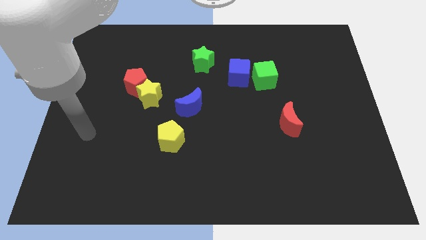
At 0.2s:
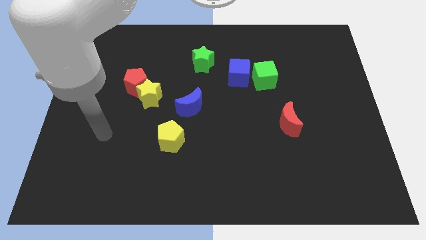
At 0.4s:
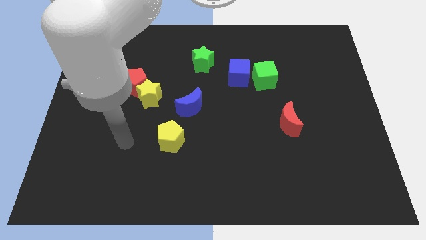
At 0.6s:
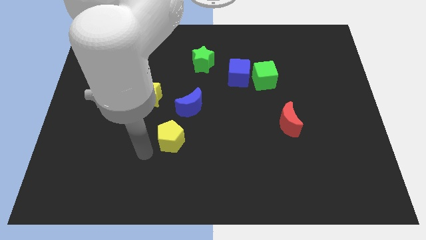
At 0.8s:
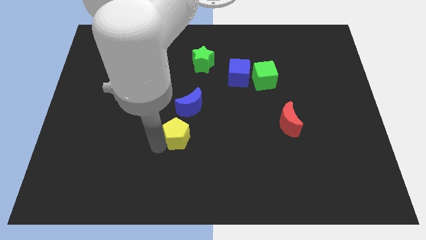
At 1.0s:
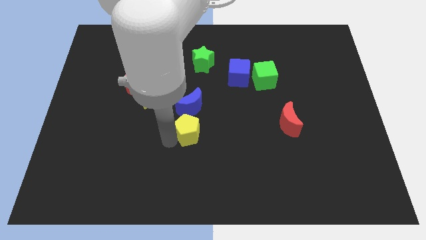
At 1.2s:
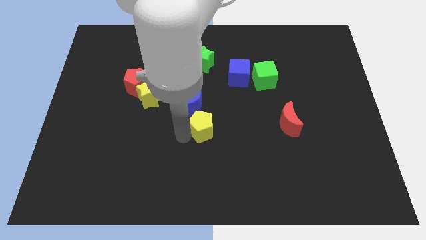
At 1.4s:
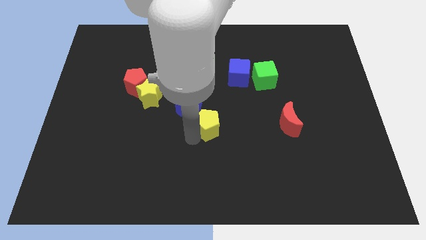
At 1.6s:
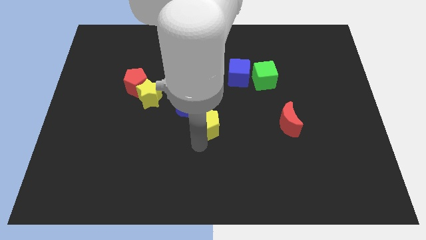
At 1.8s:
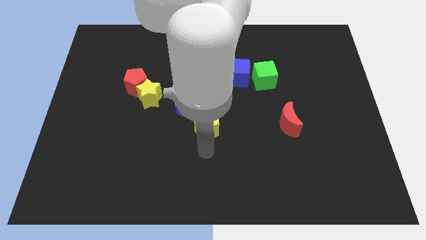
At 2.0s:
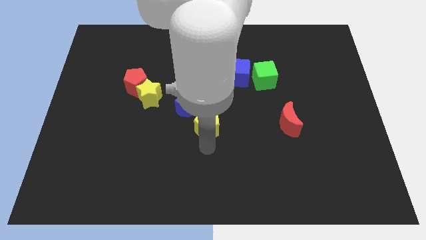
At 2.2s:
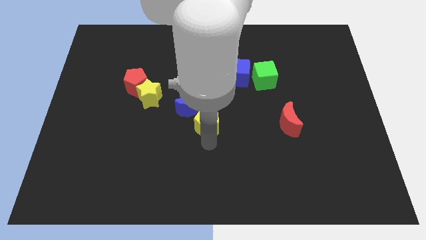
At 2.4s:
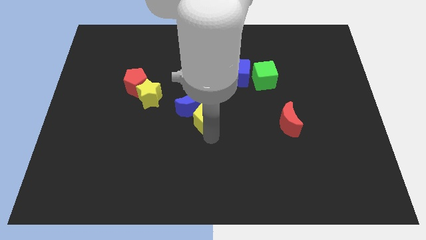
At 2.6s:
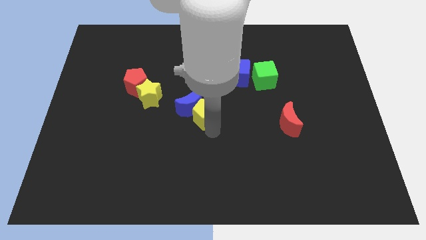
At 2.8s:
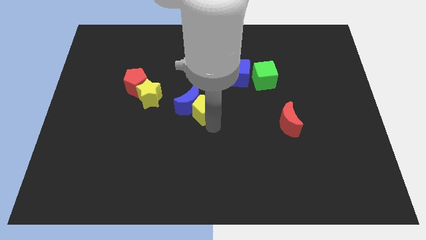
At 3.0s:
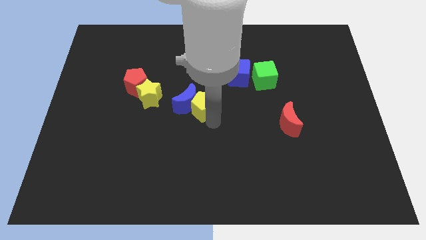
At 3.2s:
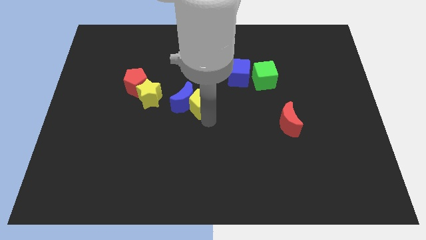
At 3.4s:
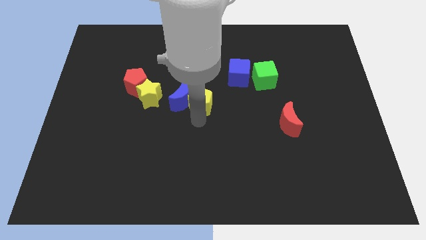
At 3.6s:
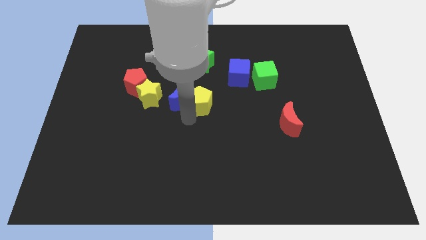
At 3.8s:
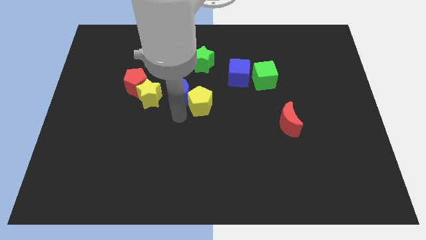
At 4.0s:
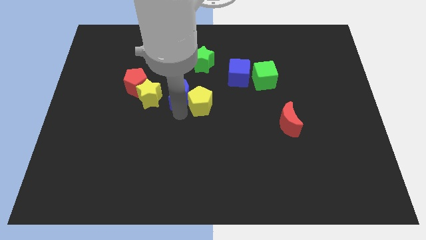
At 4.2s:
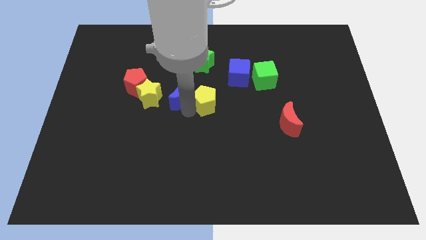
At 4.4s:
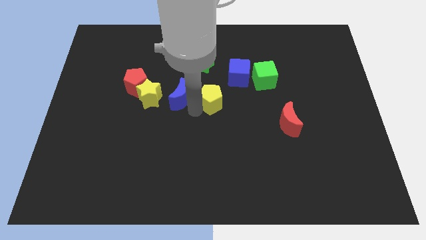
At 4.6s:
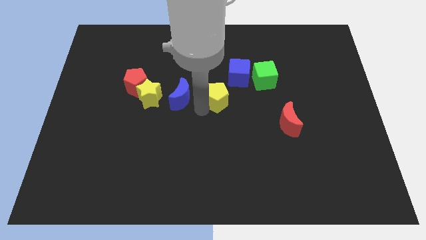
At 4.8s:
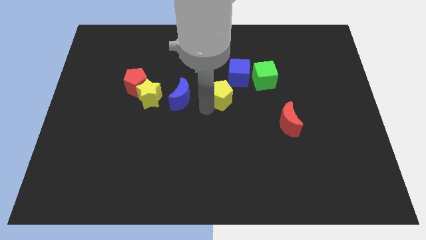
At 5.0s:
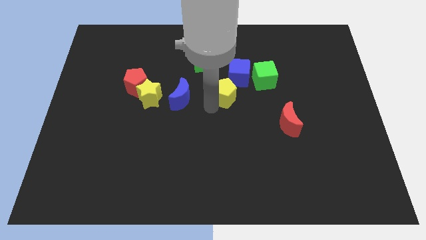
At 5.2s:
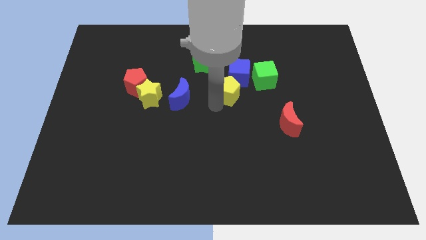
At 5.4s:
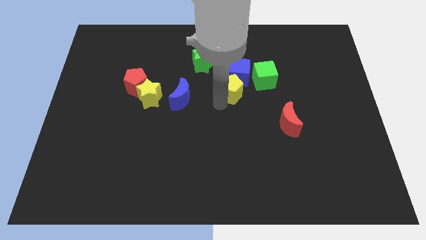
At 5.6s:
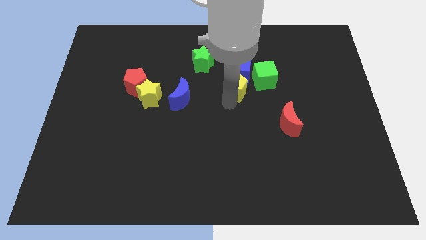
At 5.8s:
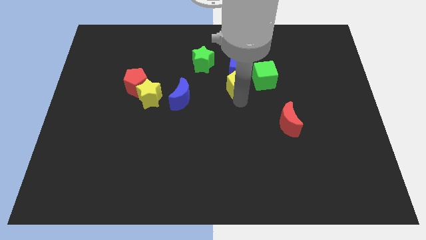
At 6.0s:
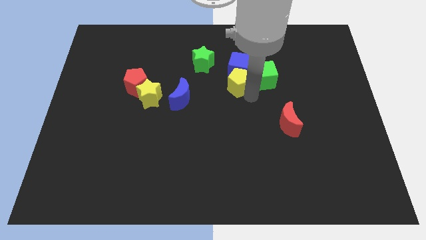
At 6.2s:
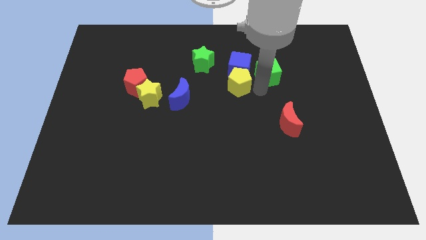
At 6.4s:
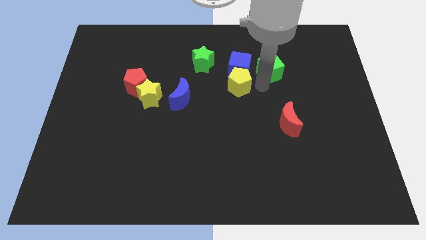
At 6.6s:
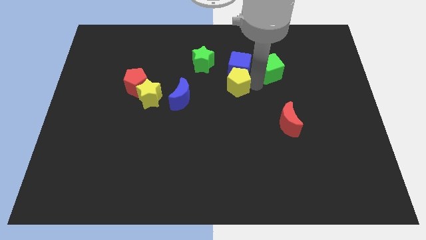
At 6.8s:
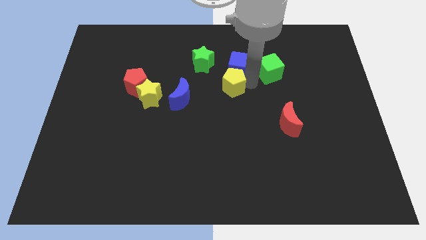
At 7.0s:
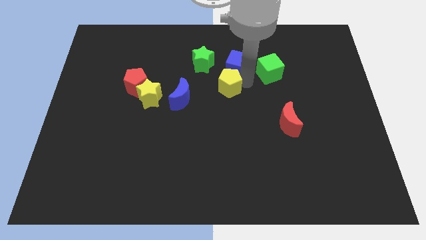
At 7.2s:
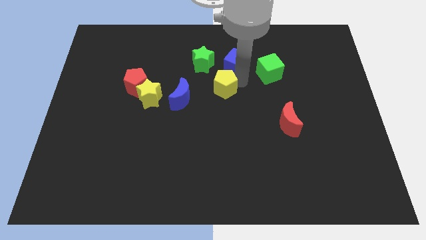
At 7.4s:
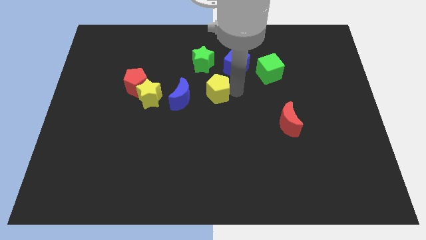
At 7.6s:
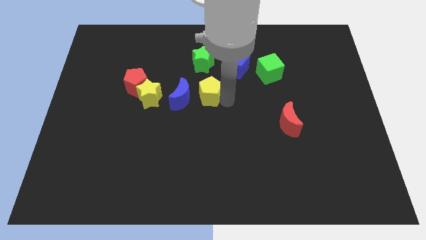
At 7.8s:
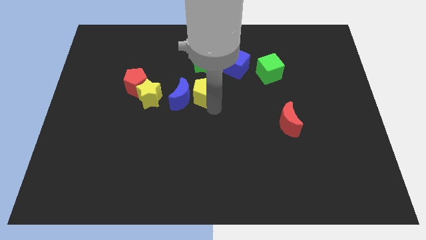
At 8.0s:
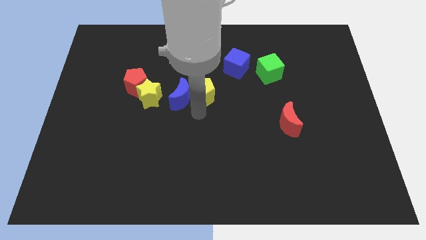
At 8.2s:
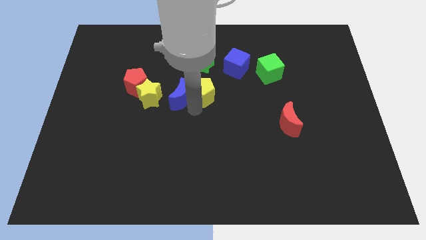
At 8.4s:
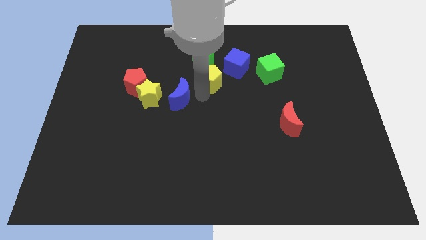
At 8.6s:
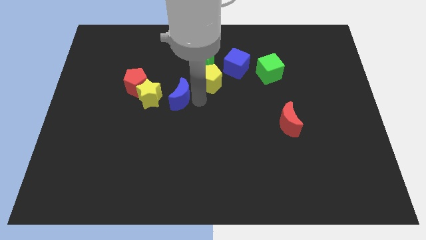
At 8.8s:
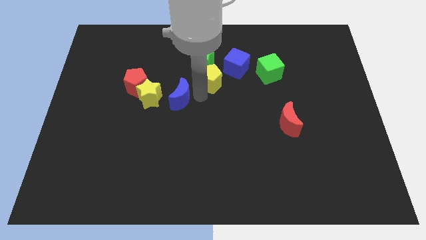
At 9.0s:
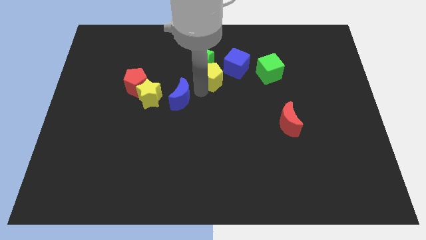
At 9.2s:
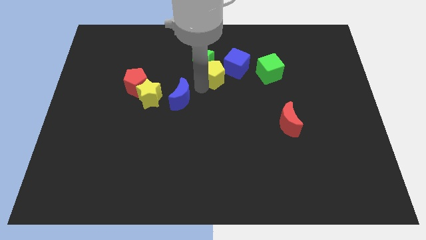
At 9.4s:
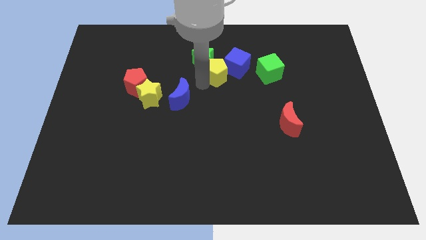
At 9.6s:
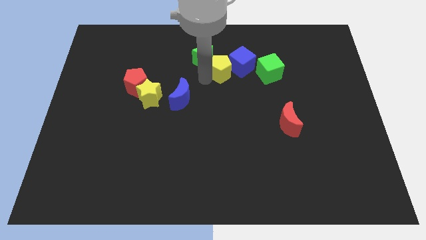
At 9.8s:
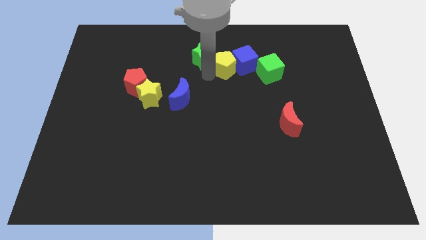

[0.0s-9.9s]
push the yellow pentagon to the top left of the blue cube

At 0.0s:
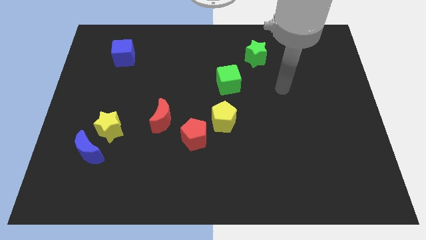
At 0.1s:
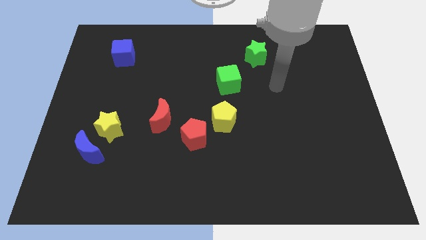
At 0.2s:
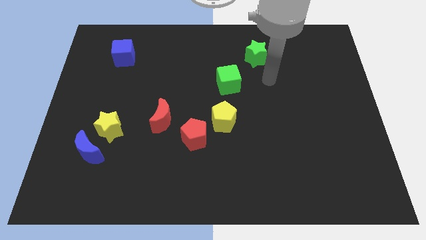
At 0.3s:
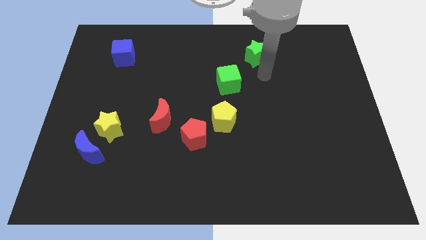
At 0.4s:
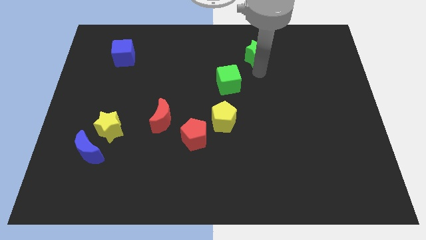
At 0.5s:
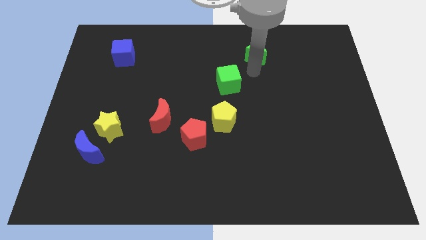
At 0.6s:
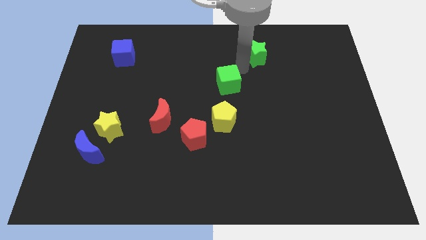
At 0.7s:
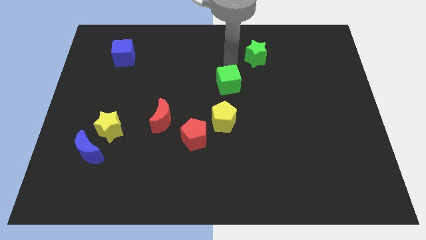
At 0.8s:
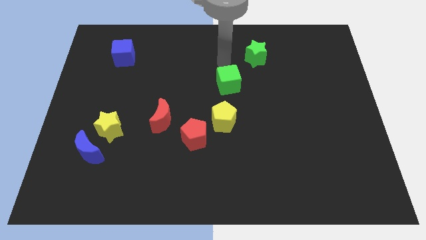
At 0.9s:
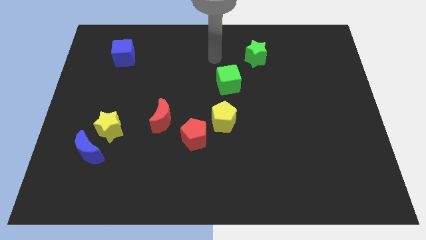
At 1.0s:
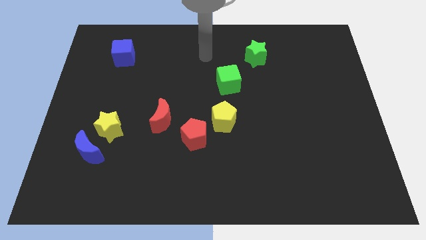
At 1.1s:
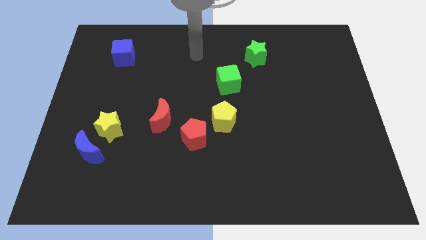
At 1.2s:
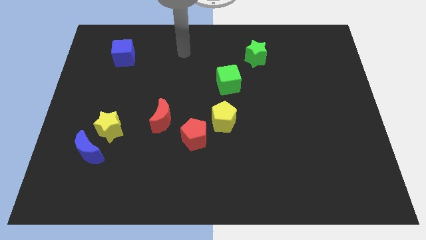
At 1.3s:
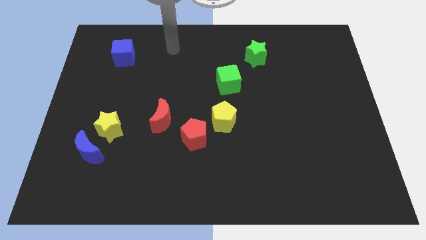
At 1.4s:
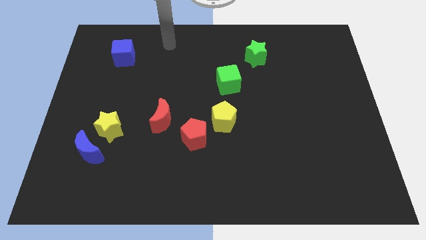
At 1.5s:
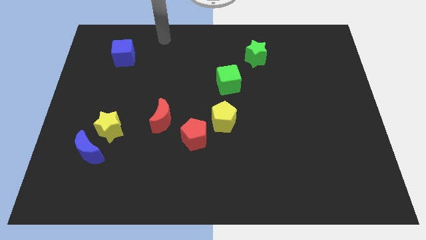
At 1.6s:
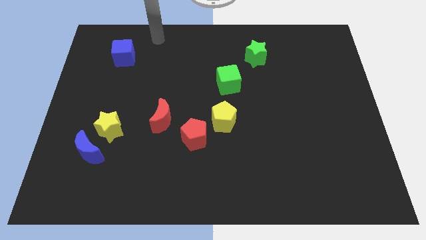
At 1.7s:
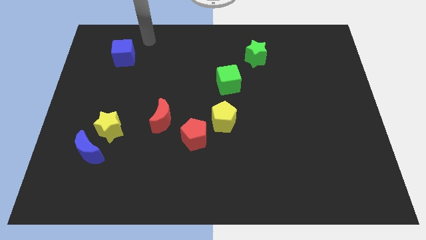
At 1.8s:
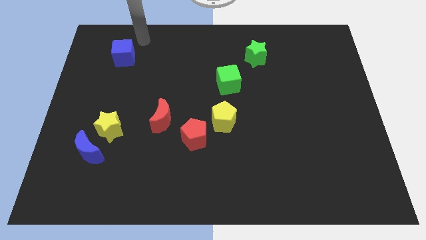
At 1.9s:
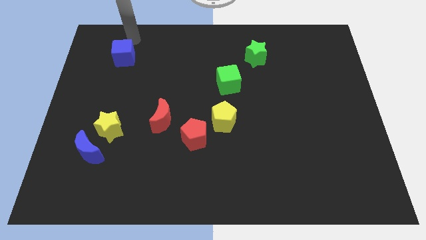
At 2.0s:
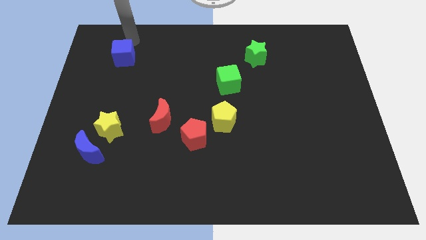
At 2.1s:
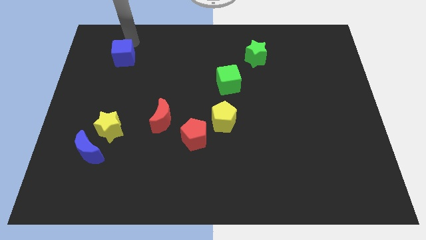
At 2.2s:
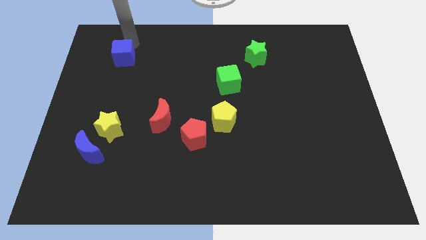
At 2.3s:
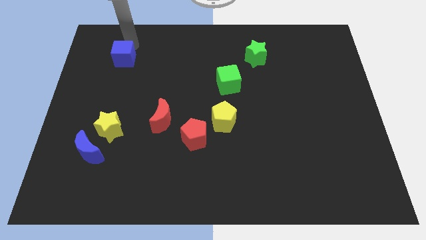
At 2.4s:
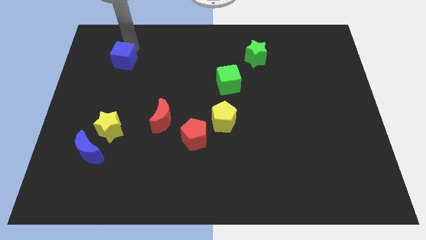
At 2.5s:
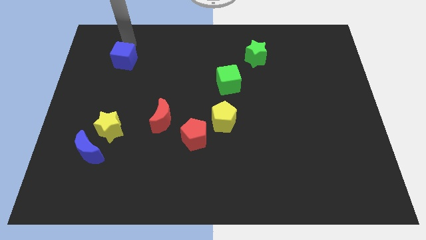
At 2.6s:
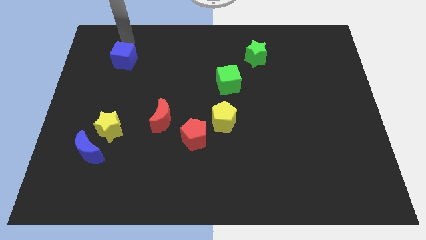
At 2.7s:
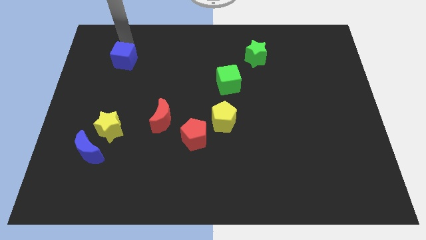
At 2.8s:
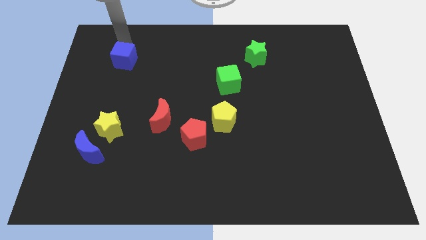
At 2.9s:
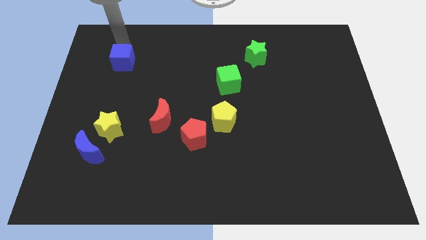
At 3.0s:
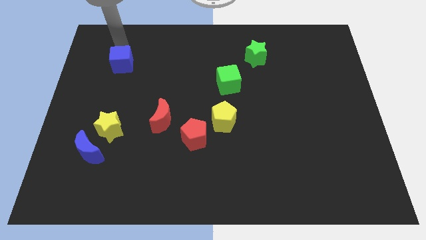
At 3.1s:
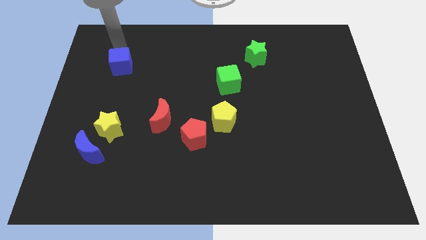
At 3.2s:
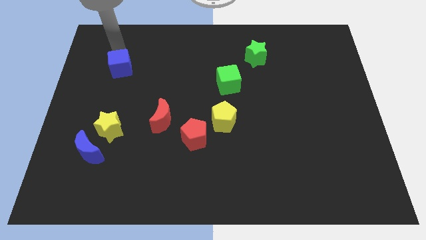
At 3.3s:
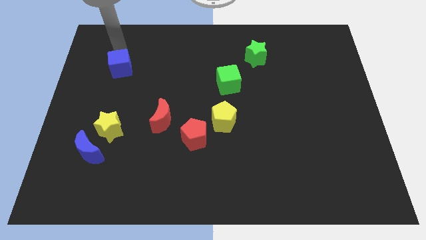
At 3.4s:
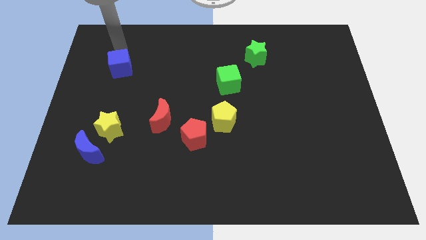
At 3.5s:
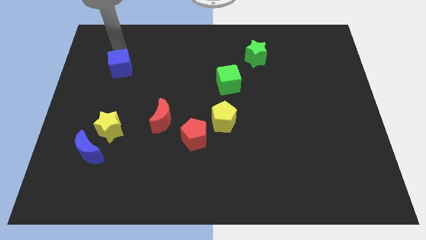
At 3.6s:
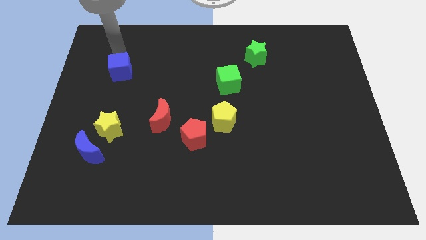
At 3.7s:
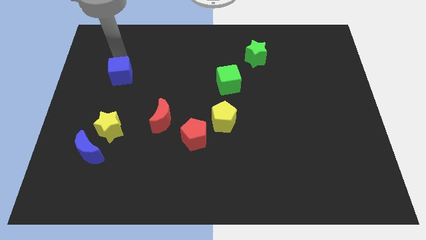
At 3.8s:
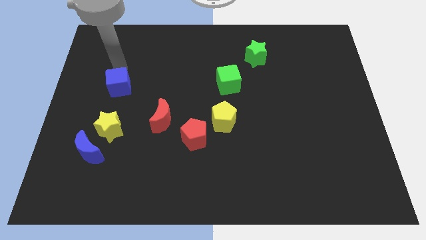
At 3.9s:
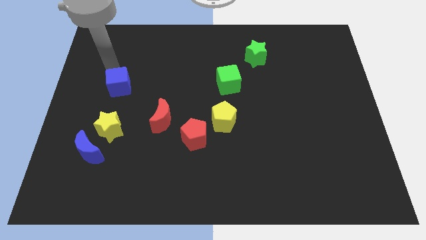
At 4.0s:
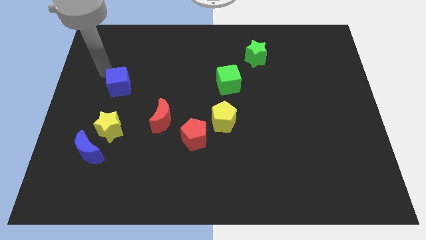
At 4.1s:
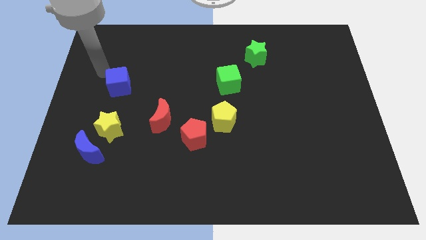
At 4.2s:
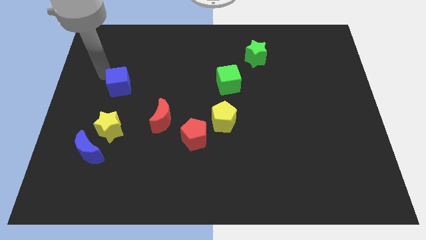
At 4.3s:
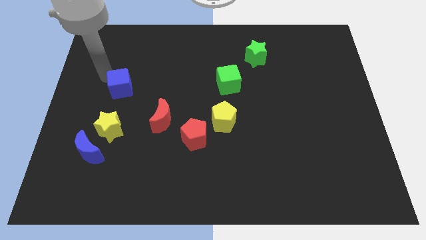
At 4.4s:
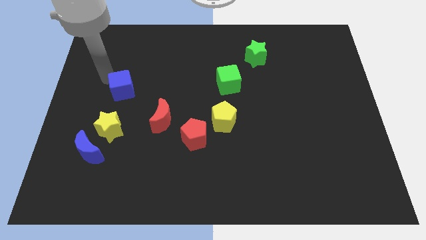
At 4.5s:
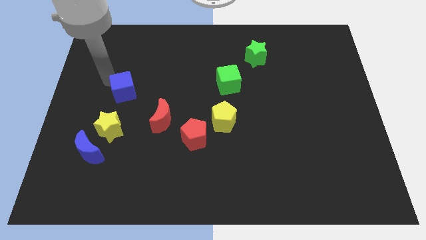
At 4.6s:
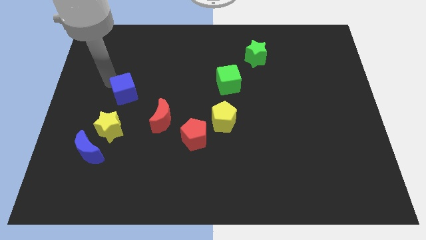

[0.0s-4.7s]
move the blue cube to the top left of the red moon
